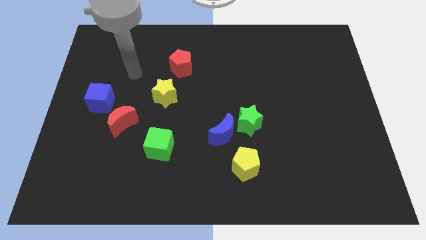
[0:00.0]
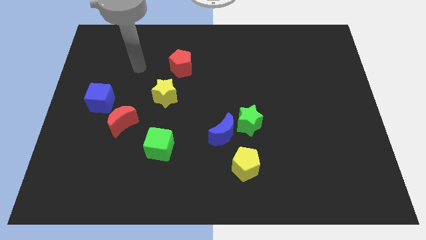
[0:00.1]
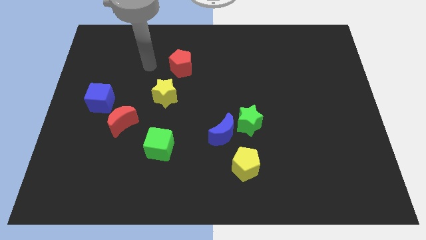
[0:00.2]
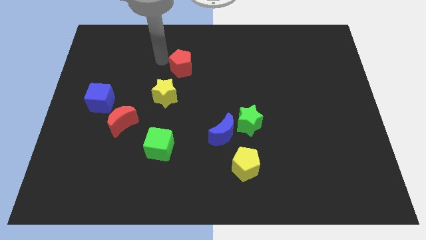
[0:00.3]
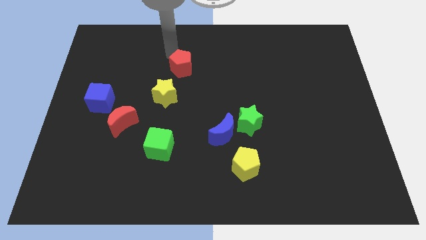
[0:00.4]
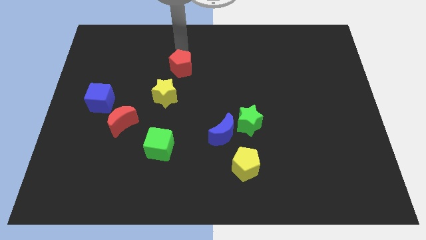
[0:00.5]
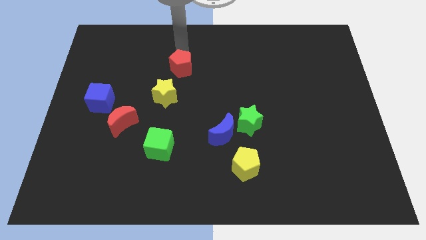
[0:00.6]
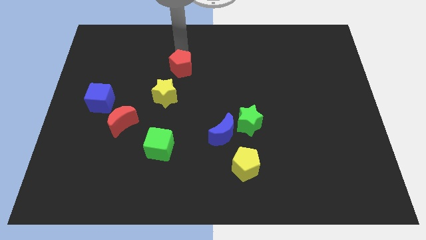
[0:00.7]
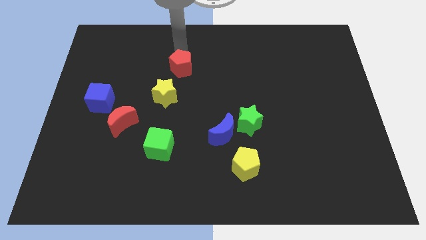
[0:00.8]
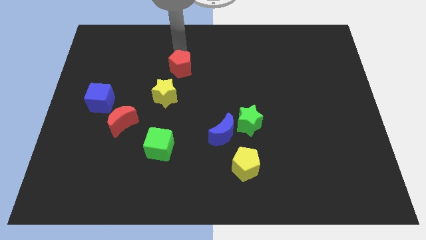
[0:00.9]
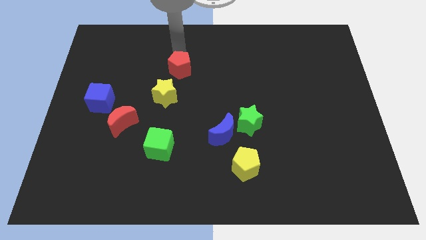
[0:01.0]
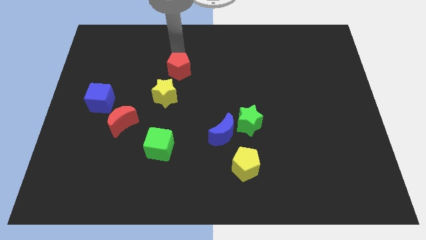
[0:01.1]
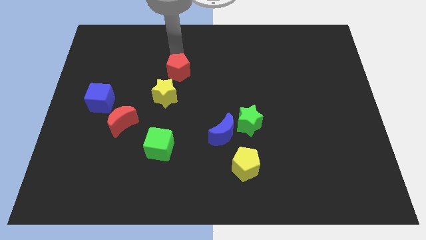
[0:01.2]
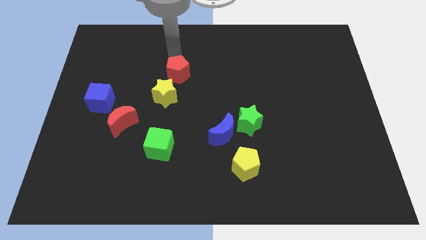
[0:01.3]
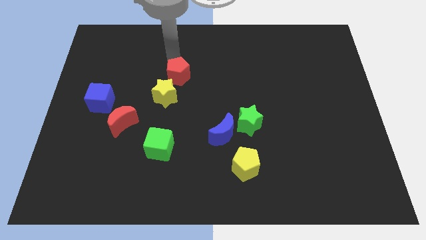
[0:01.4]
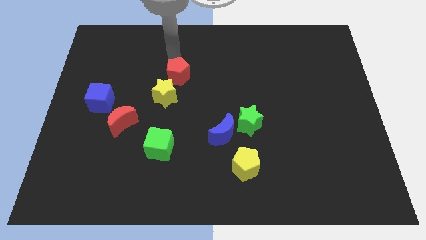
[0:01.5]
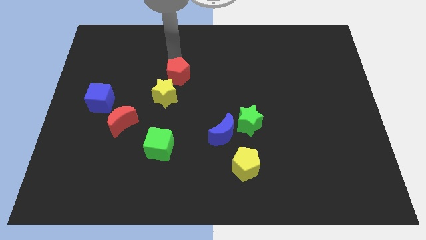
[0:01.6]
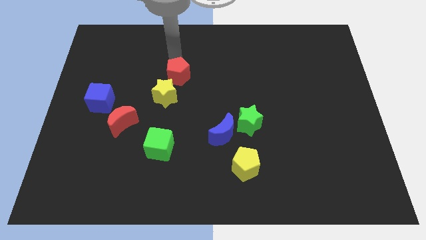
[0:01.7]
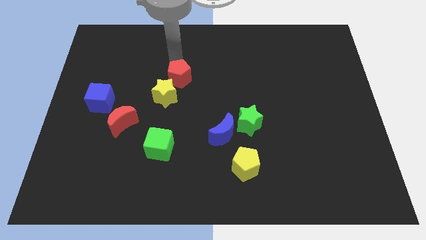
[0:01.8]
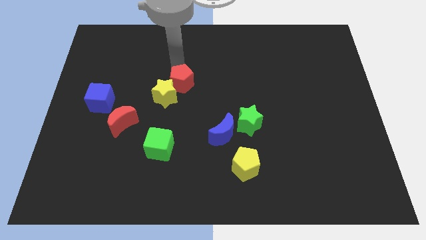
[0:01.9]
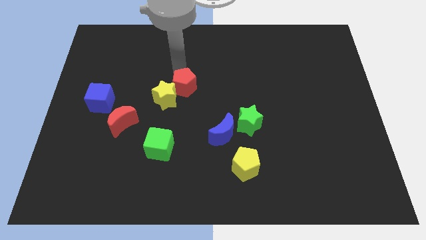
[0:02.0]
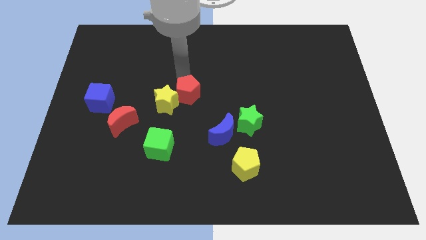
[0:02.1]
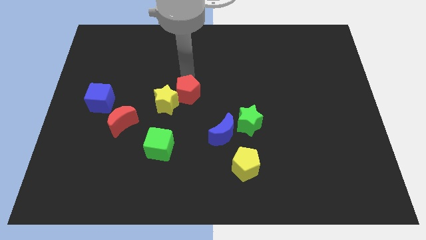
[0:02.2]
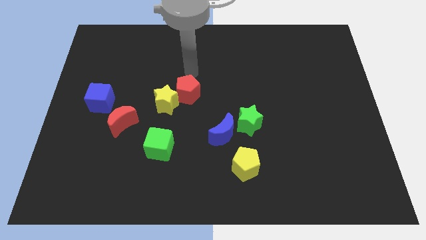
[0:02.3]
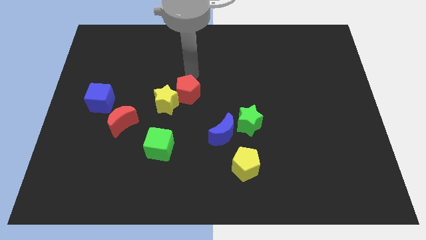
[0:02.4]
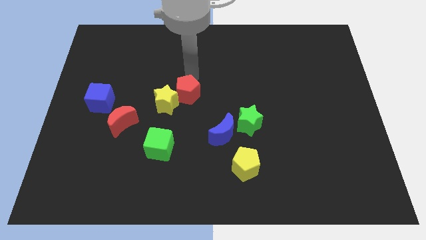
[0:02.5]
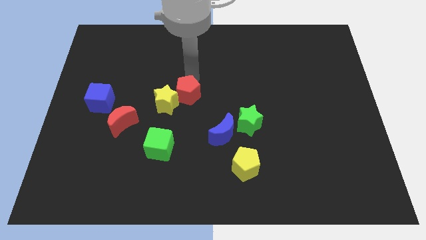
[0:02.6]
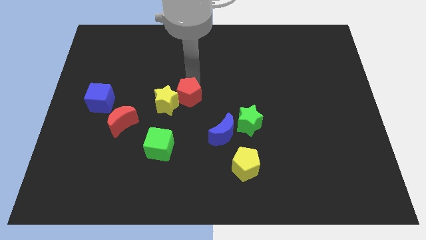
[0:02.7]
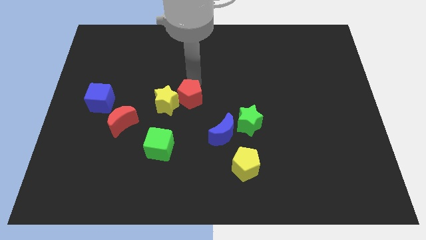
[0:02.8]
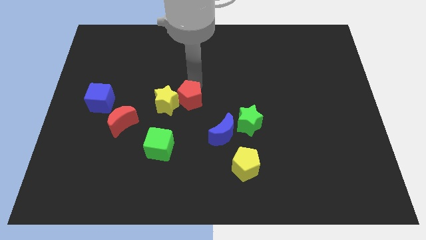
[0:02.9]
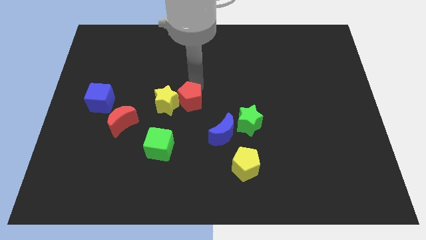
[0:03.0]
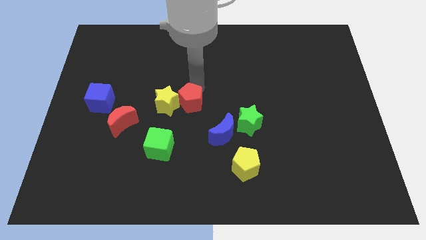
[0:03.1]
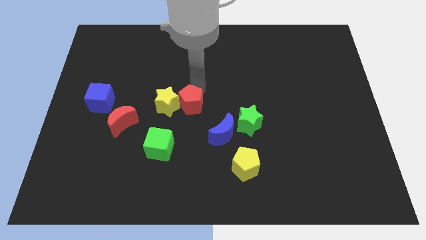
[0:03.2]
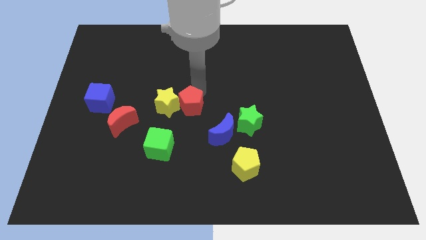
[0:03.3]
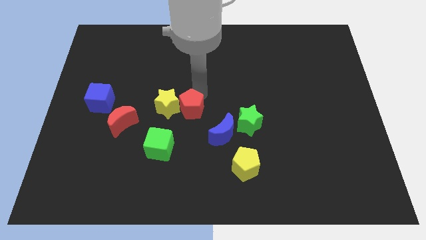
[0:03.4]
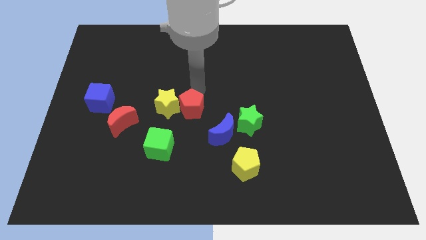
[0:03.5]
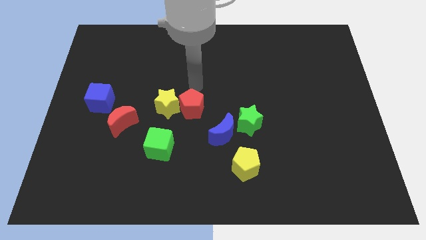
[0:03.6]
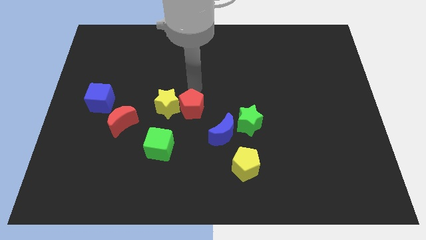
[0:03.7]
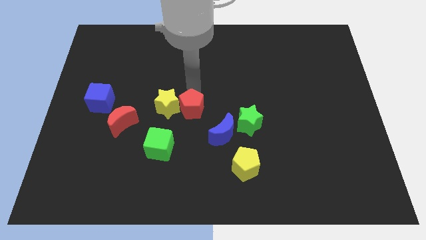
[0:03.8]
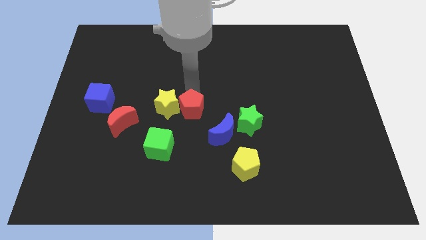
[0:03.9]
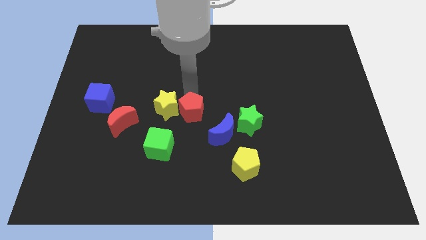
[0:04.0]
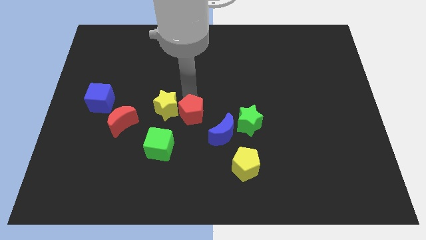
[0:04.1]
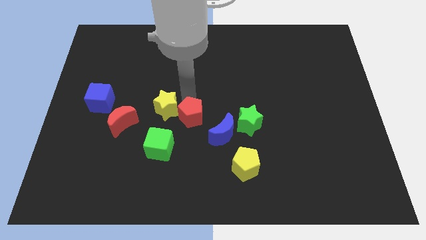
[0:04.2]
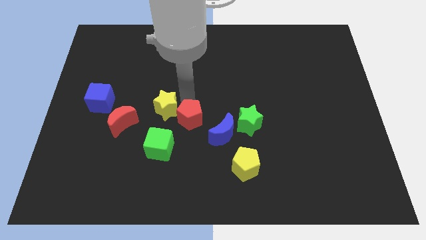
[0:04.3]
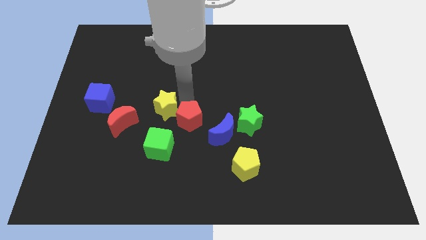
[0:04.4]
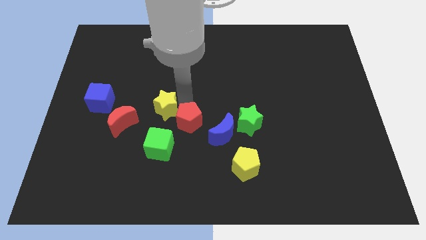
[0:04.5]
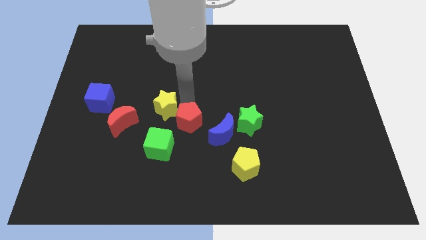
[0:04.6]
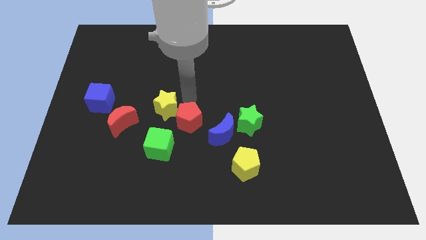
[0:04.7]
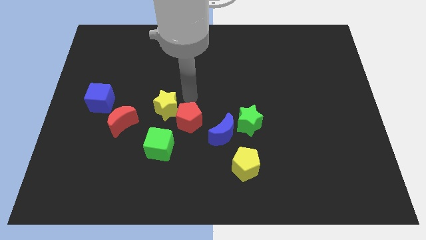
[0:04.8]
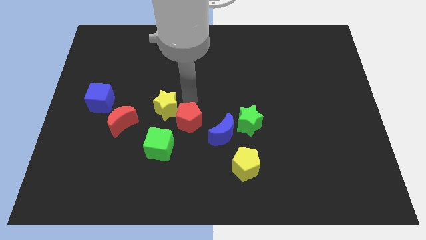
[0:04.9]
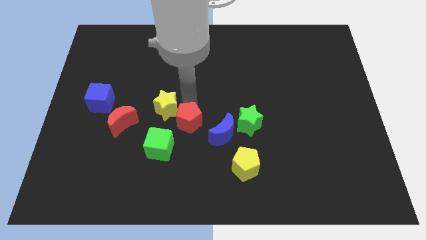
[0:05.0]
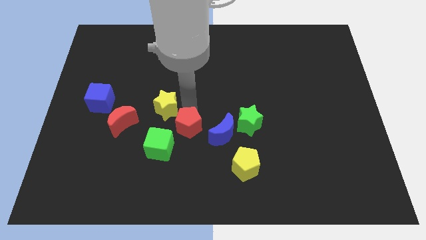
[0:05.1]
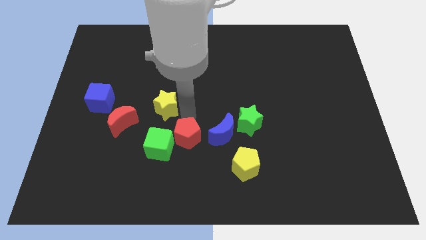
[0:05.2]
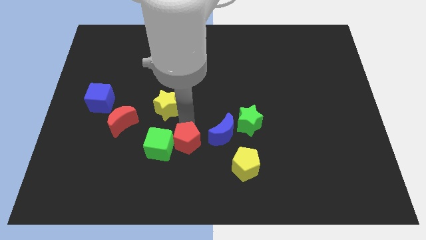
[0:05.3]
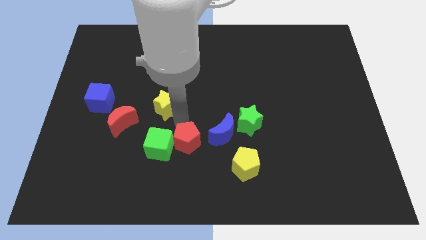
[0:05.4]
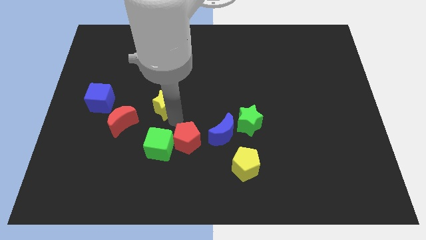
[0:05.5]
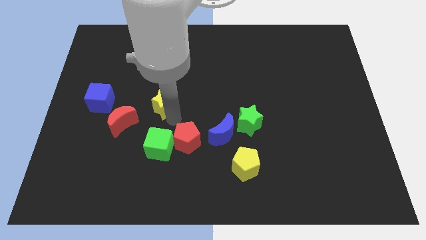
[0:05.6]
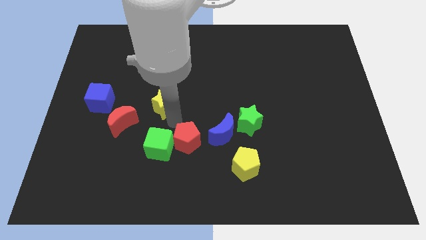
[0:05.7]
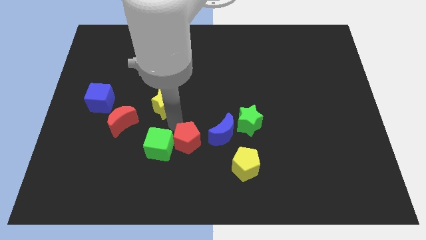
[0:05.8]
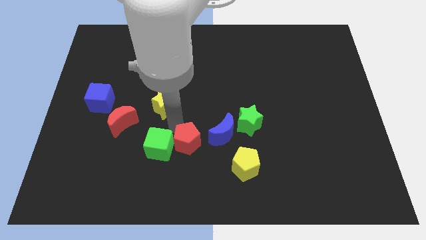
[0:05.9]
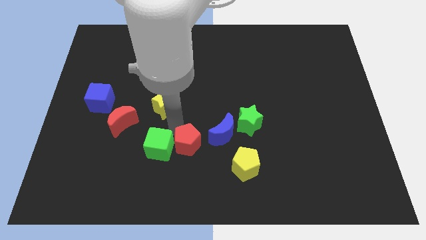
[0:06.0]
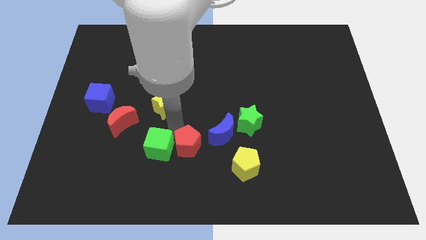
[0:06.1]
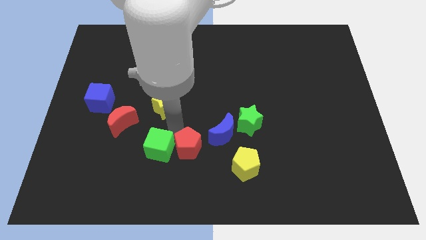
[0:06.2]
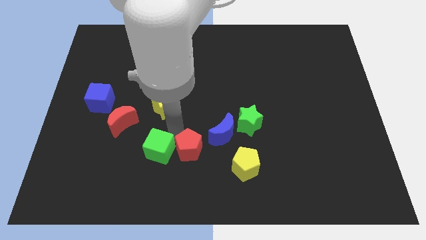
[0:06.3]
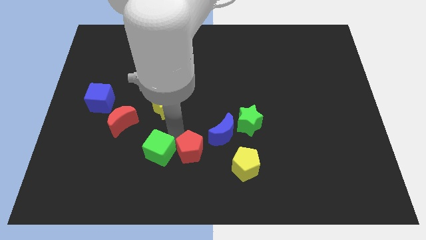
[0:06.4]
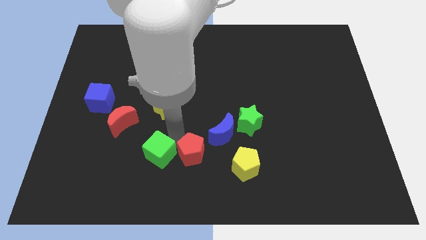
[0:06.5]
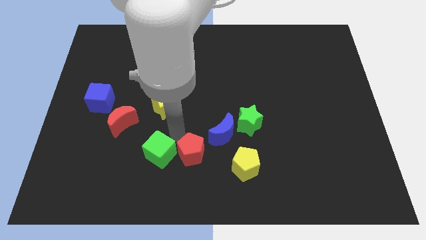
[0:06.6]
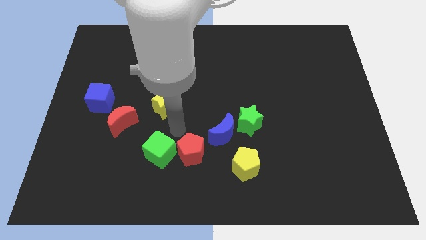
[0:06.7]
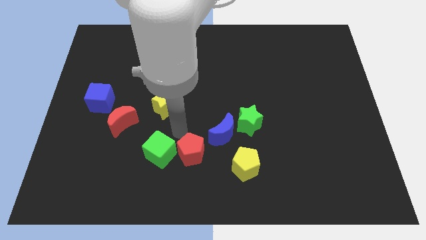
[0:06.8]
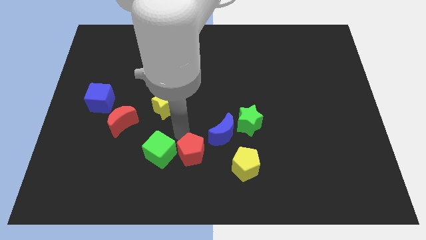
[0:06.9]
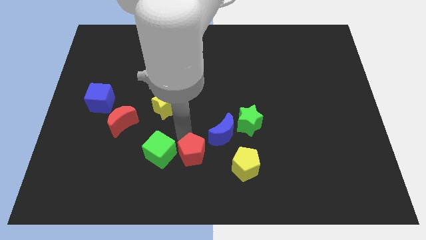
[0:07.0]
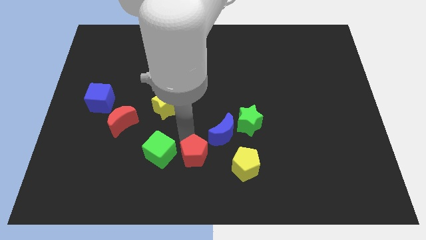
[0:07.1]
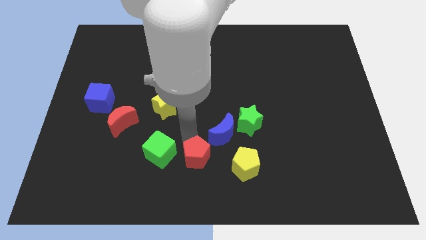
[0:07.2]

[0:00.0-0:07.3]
slide the red pentagon to the bottom
